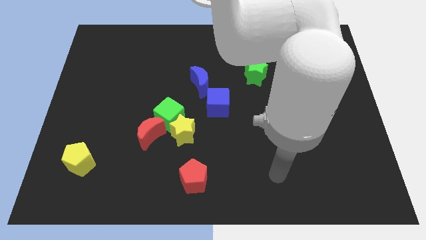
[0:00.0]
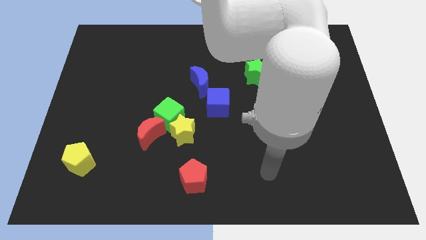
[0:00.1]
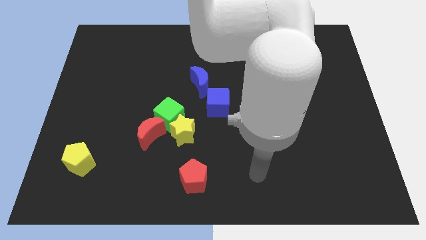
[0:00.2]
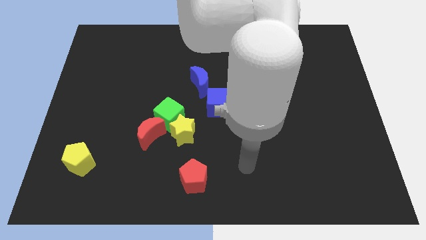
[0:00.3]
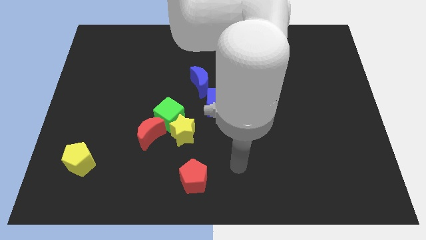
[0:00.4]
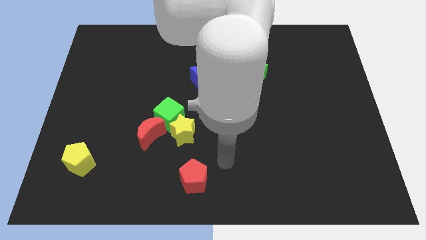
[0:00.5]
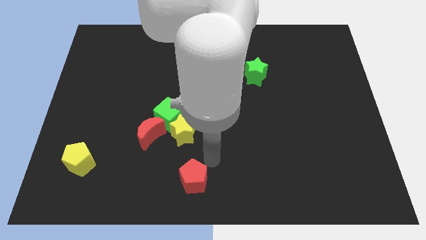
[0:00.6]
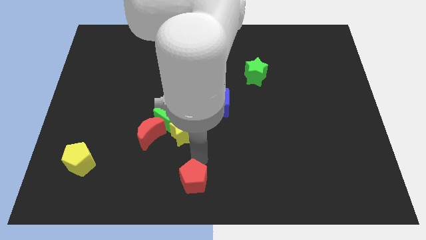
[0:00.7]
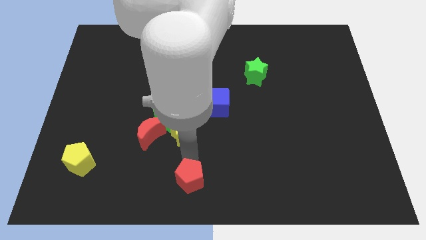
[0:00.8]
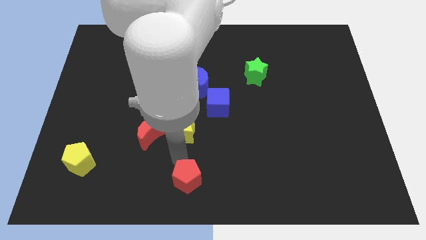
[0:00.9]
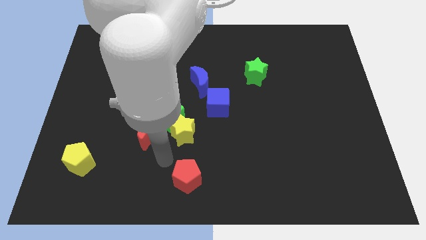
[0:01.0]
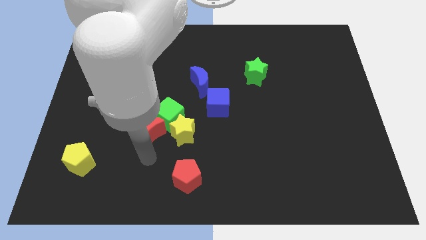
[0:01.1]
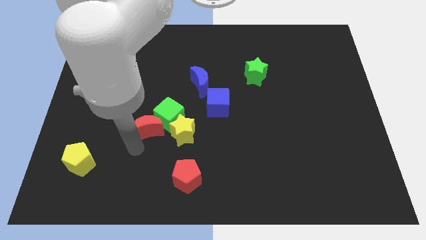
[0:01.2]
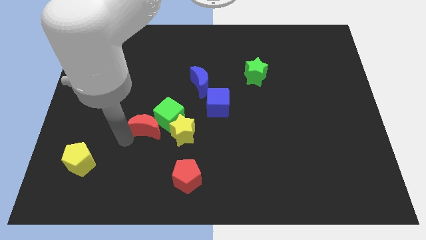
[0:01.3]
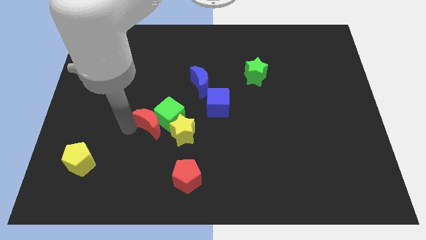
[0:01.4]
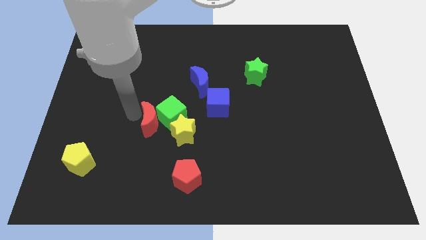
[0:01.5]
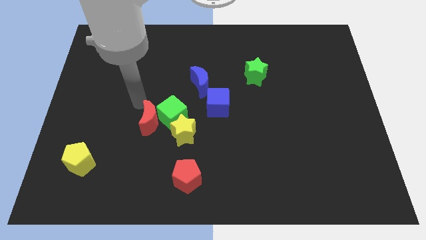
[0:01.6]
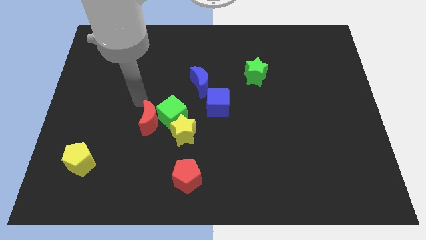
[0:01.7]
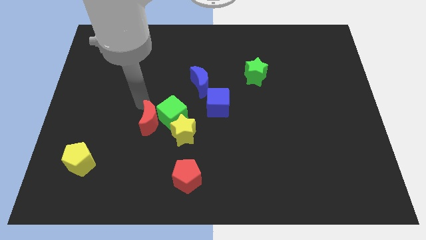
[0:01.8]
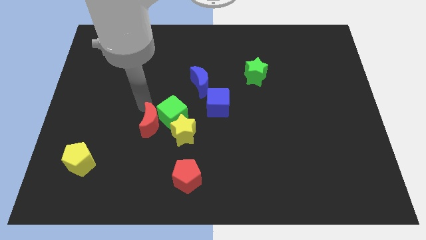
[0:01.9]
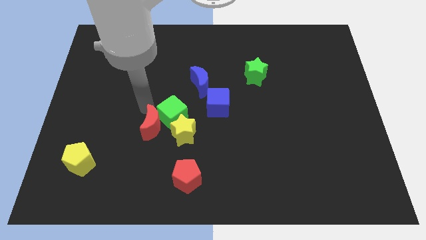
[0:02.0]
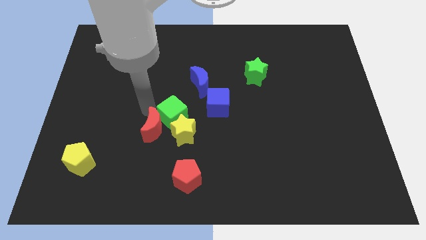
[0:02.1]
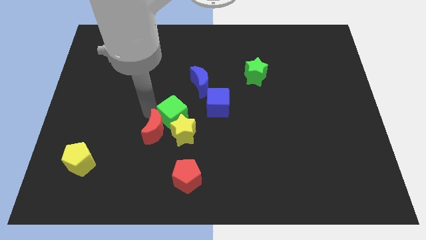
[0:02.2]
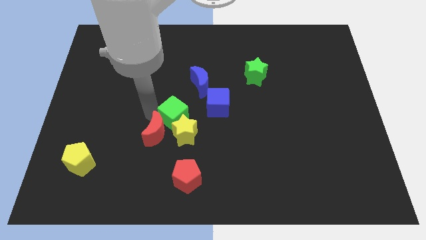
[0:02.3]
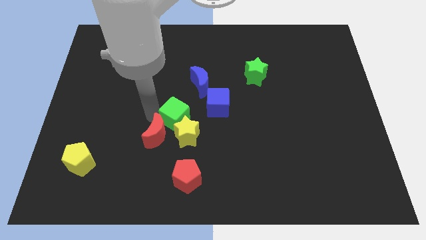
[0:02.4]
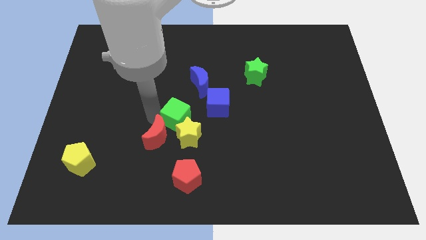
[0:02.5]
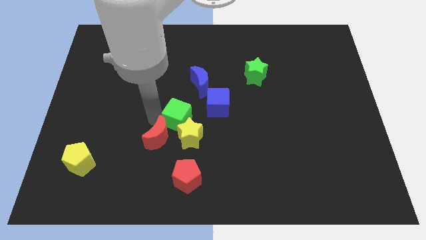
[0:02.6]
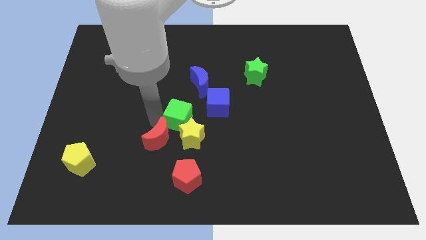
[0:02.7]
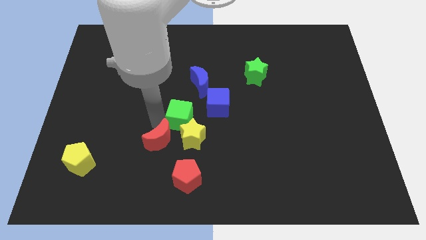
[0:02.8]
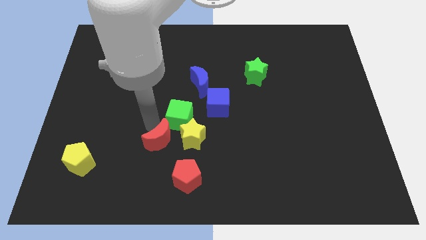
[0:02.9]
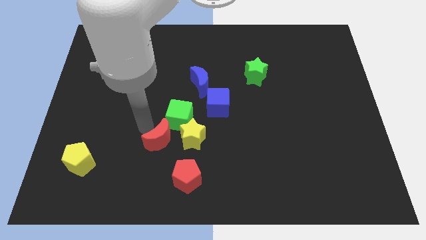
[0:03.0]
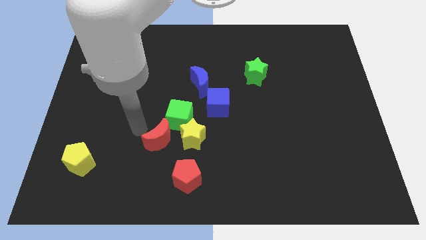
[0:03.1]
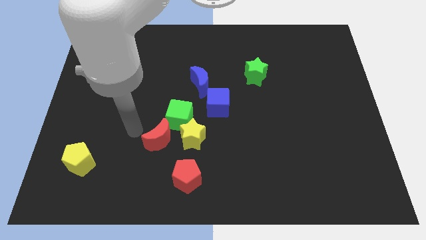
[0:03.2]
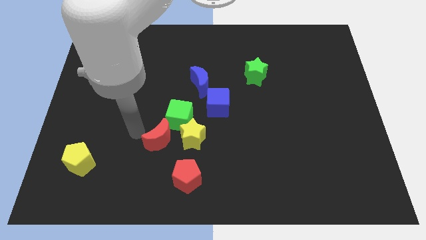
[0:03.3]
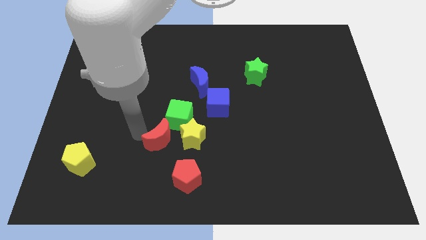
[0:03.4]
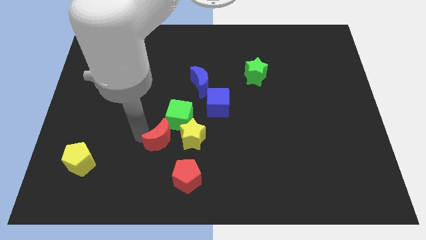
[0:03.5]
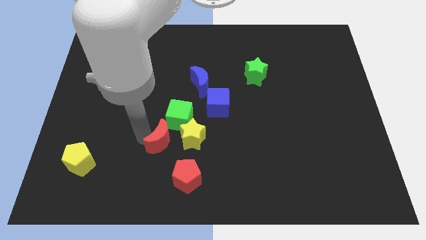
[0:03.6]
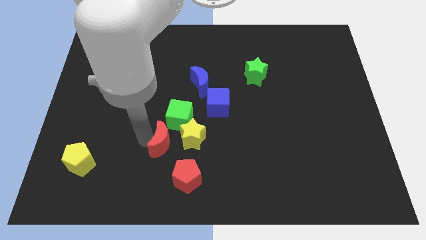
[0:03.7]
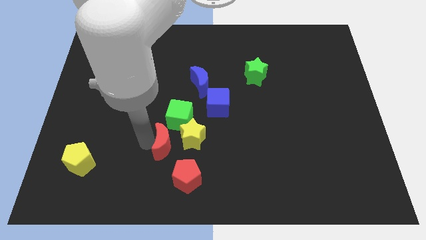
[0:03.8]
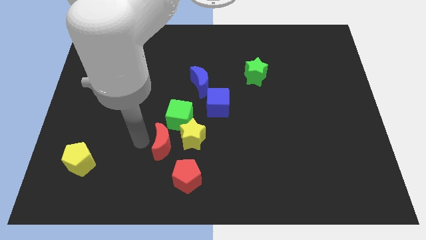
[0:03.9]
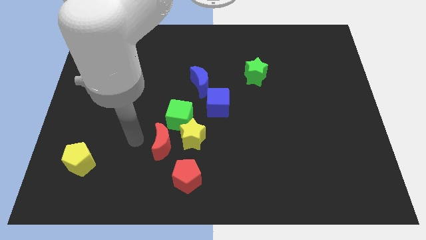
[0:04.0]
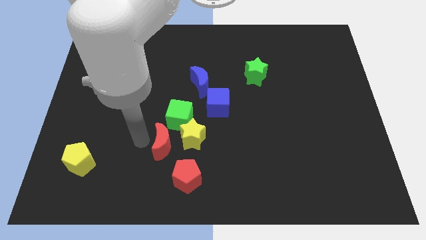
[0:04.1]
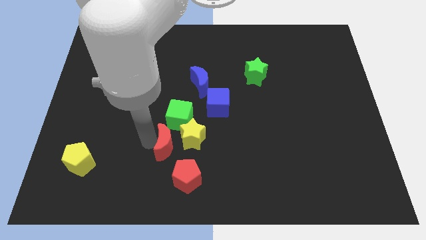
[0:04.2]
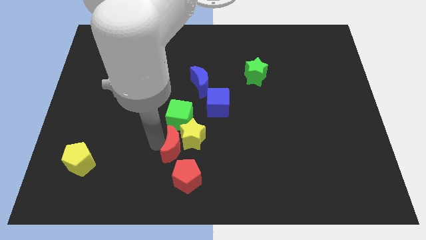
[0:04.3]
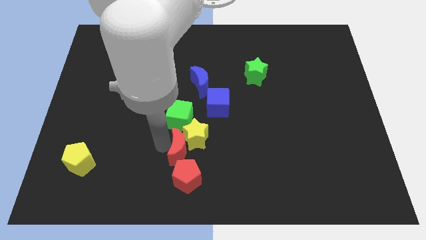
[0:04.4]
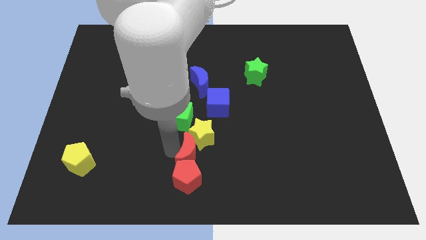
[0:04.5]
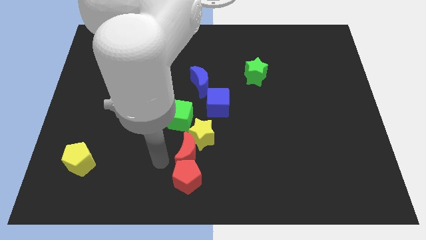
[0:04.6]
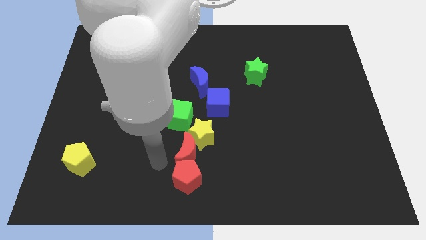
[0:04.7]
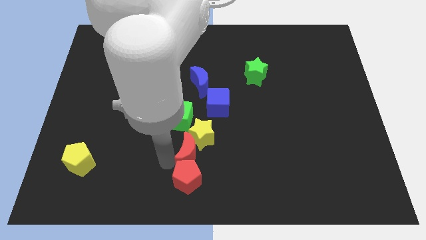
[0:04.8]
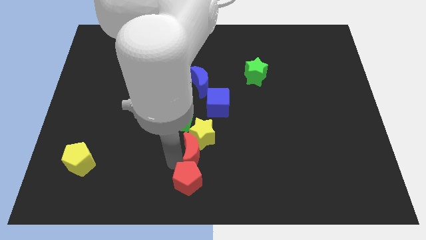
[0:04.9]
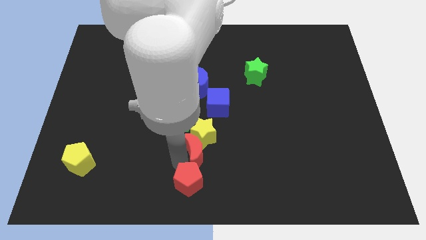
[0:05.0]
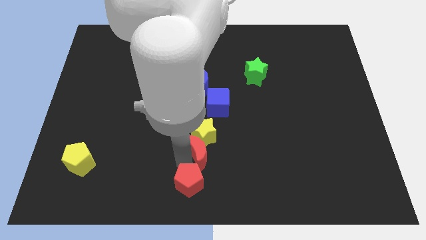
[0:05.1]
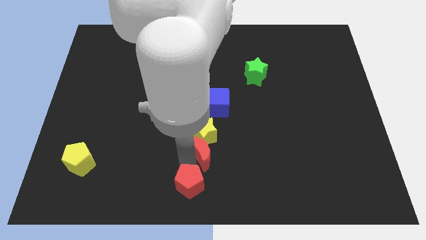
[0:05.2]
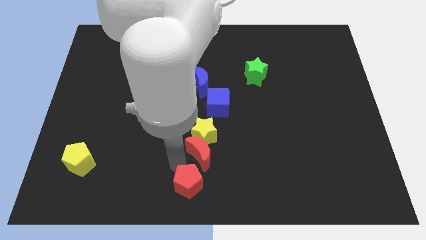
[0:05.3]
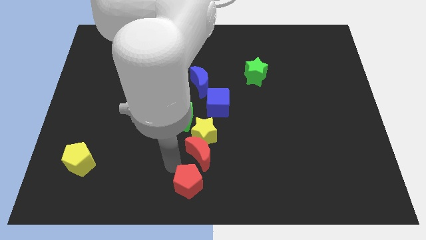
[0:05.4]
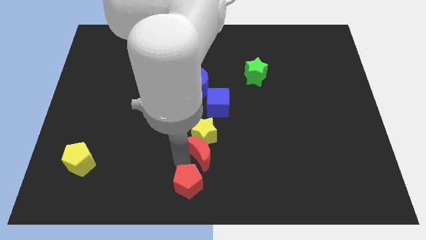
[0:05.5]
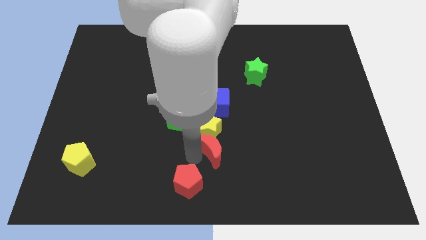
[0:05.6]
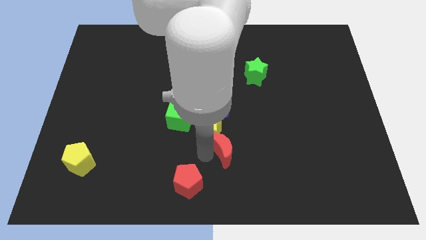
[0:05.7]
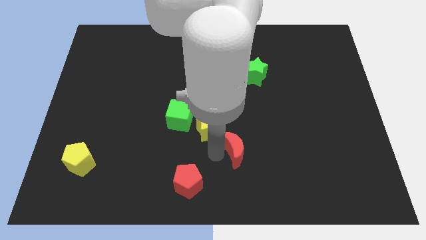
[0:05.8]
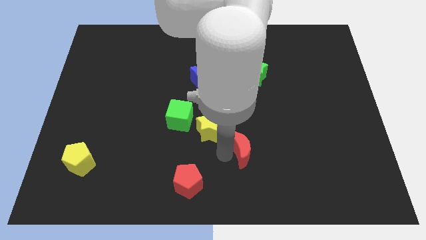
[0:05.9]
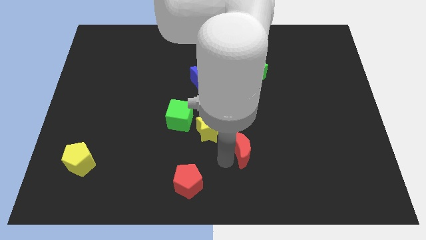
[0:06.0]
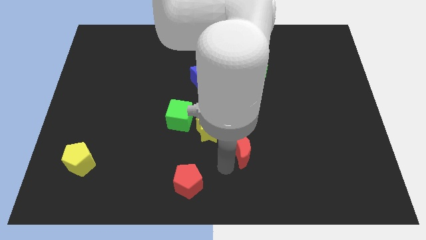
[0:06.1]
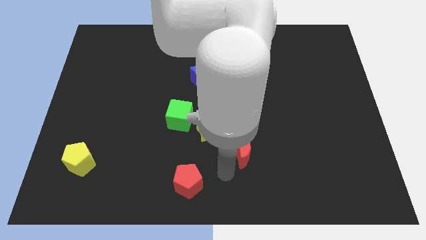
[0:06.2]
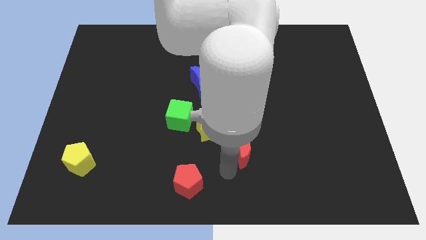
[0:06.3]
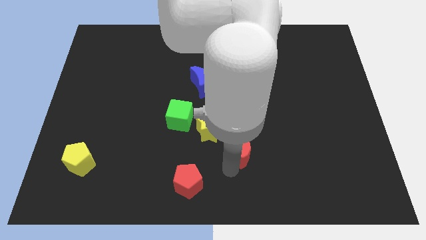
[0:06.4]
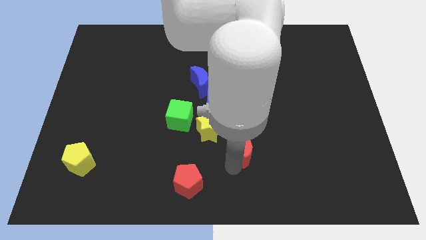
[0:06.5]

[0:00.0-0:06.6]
push the red moon just right of the yellow star

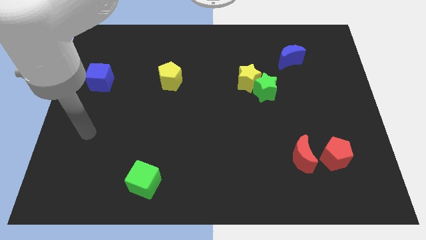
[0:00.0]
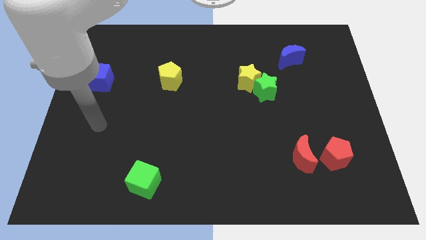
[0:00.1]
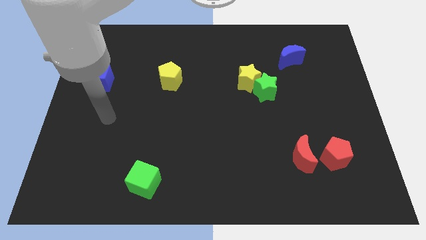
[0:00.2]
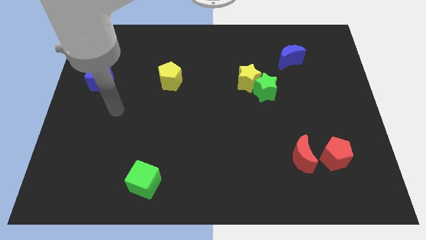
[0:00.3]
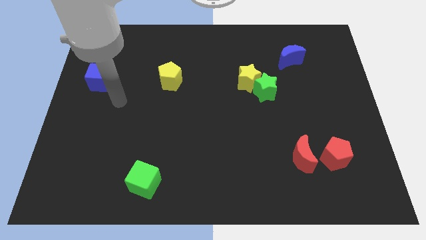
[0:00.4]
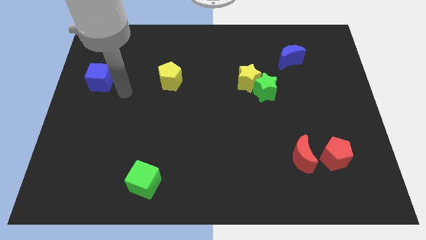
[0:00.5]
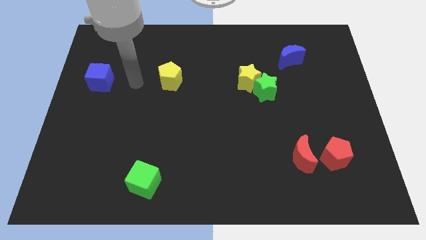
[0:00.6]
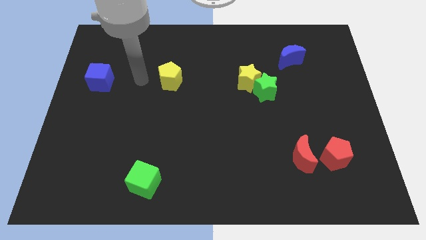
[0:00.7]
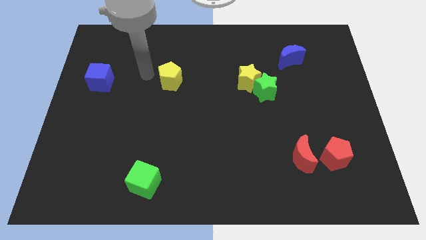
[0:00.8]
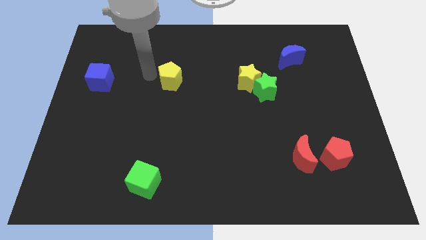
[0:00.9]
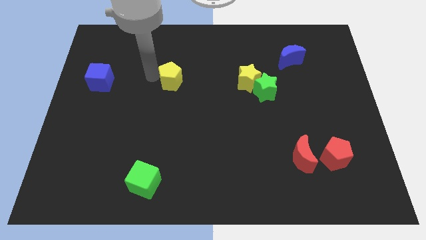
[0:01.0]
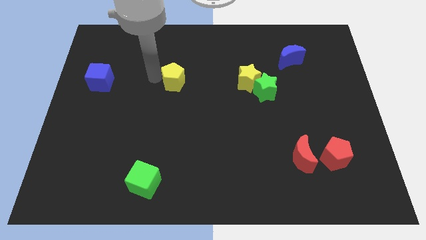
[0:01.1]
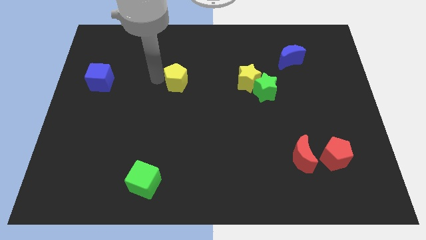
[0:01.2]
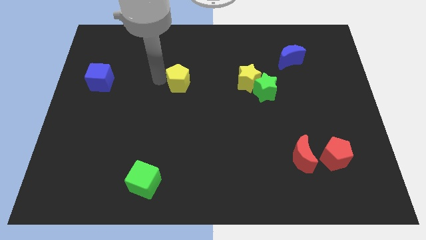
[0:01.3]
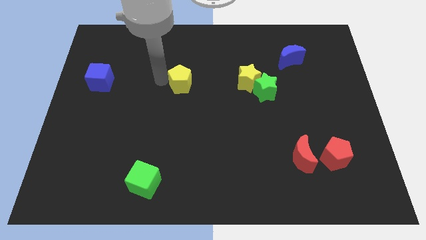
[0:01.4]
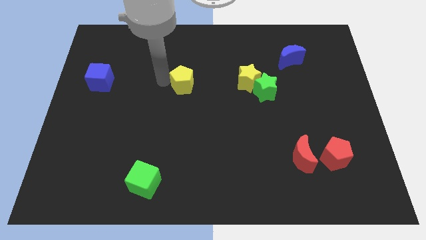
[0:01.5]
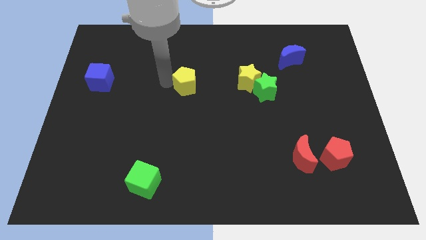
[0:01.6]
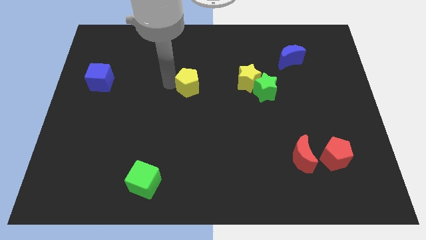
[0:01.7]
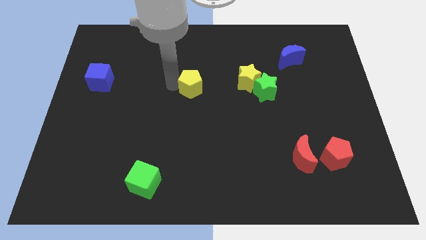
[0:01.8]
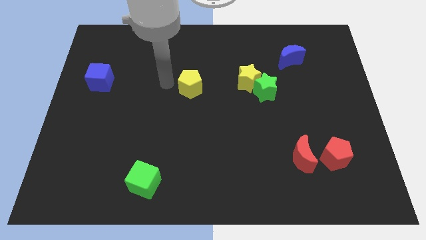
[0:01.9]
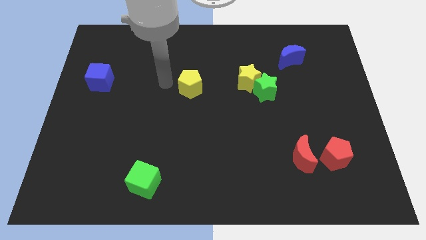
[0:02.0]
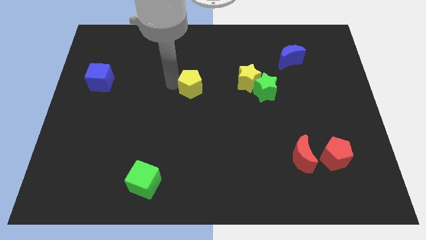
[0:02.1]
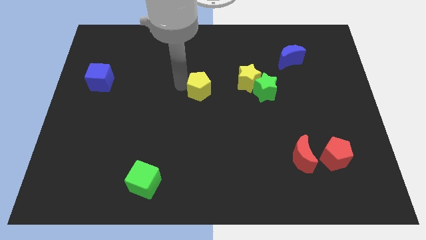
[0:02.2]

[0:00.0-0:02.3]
put the yellow pentagon to the left side of the green star
